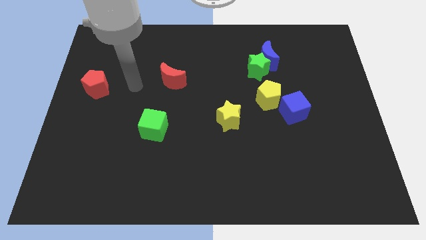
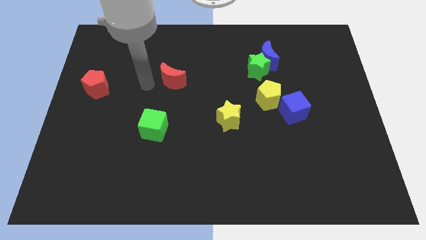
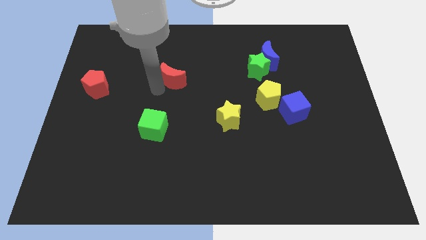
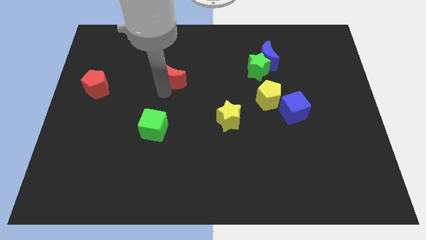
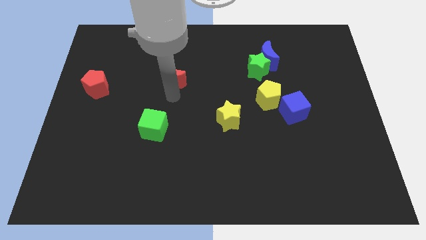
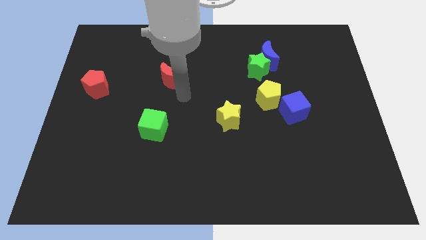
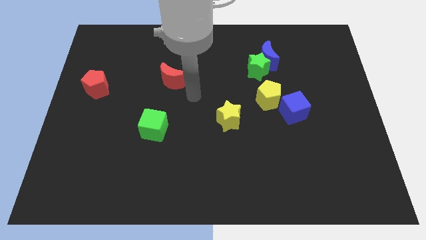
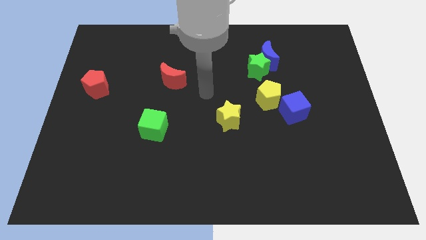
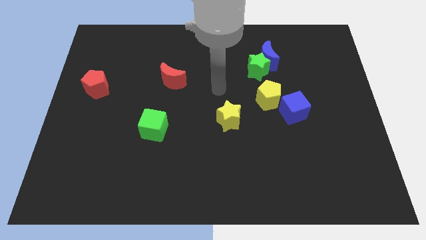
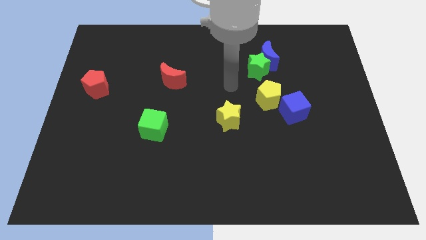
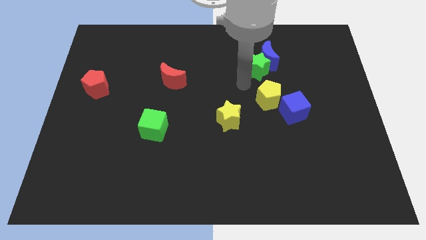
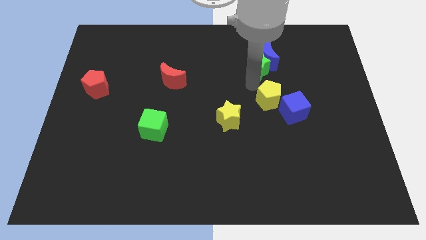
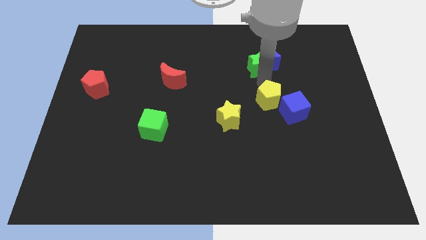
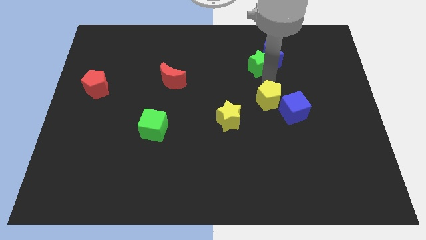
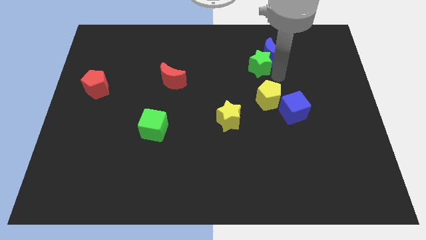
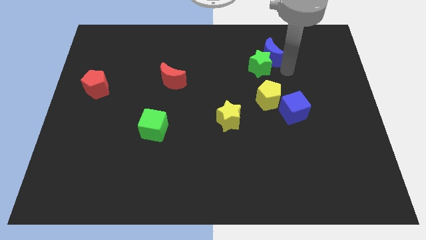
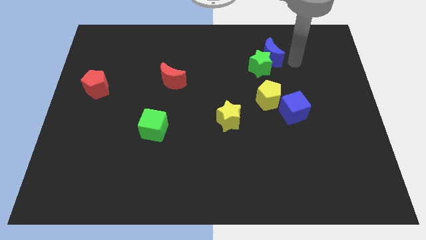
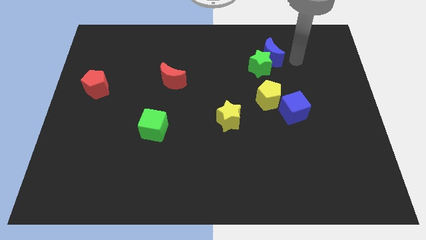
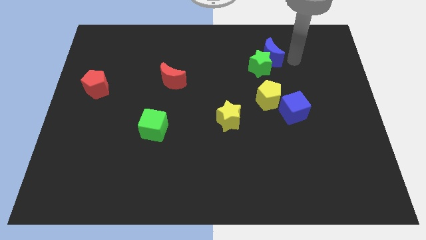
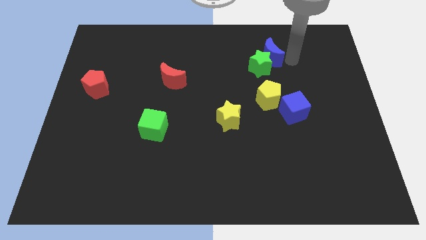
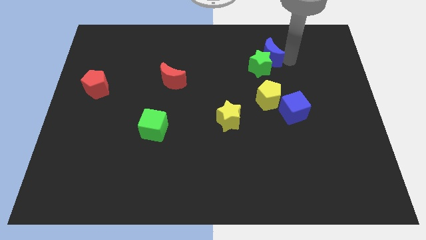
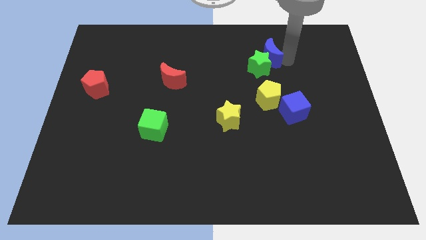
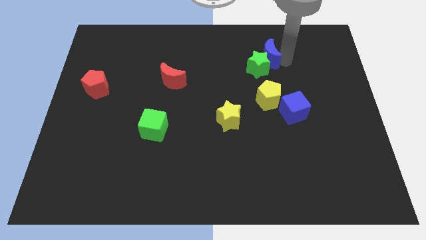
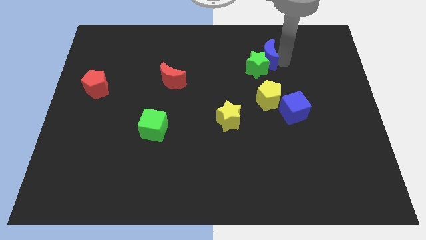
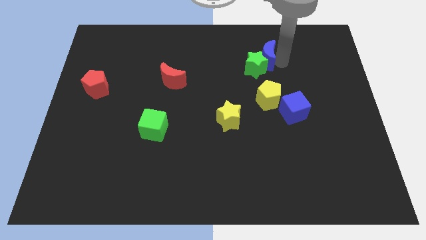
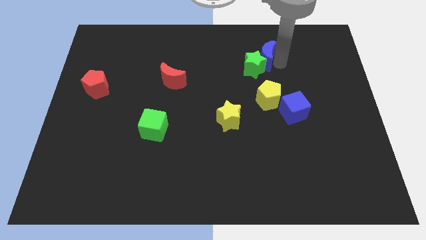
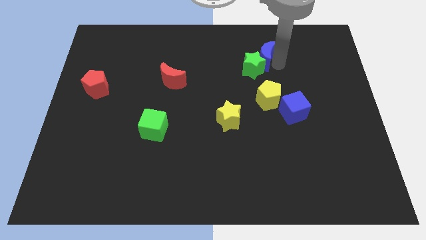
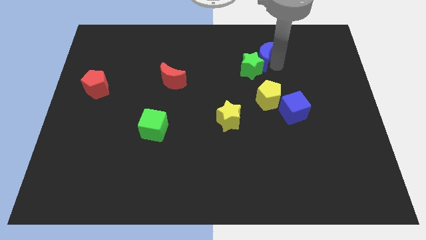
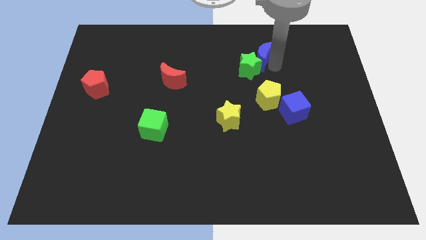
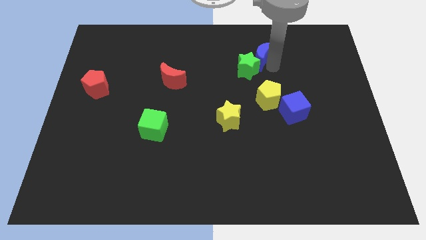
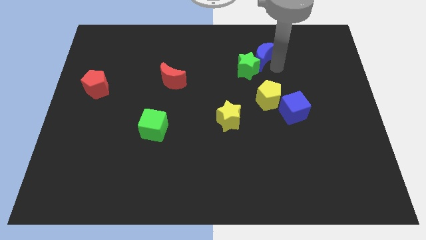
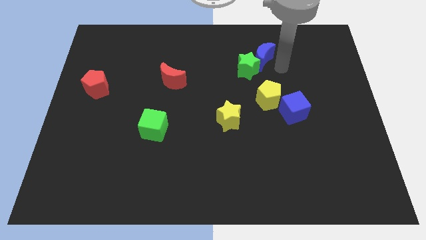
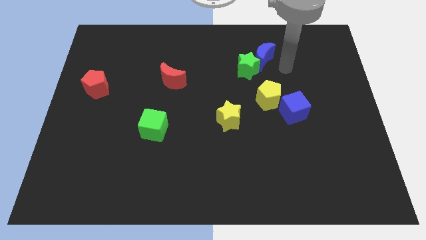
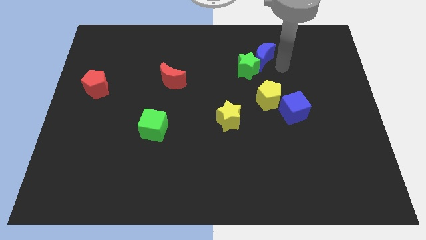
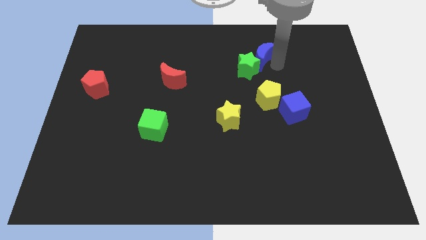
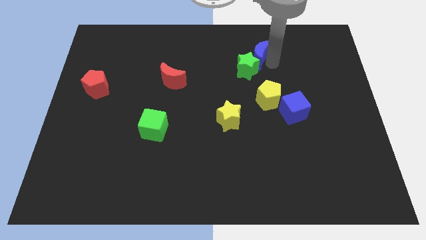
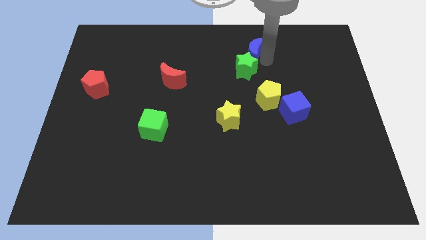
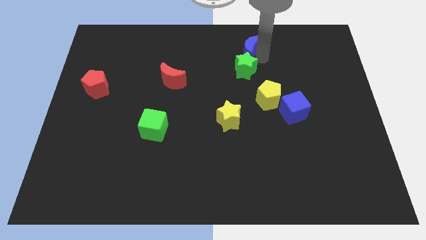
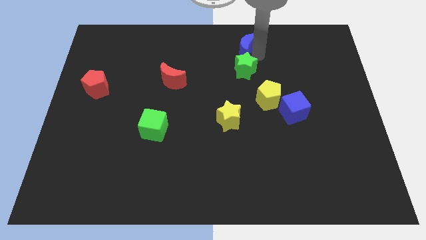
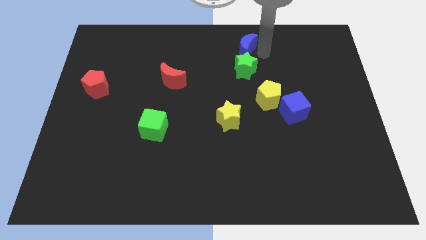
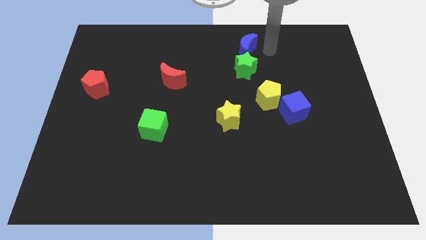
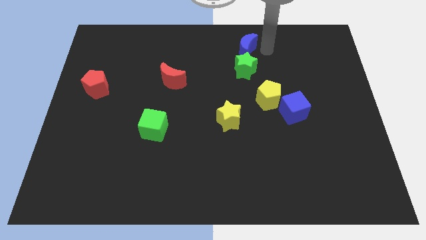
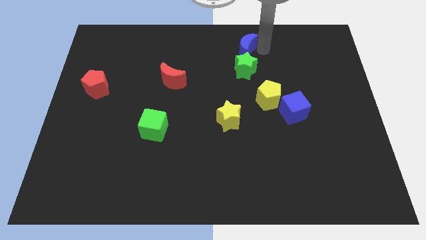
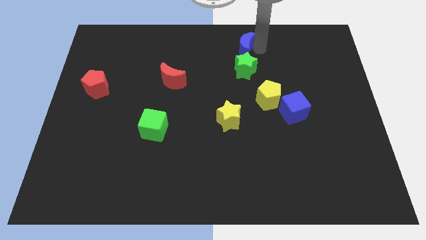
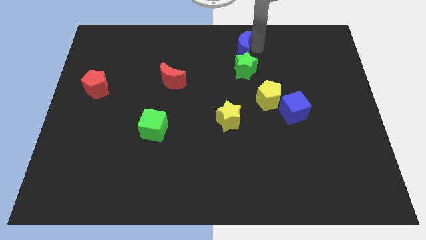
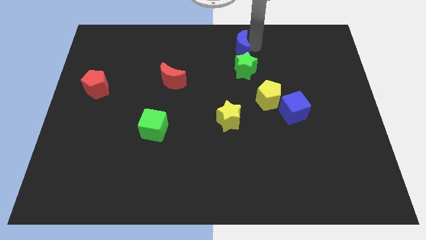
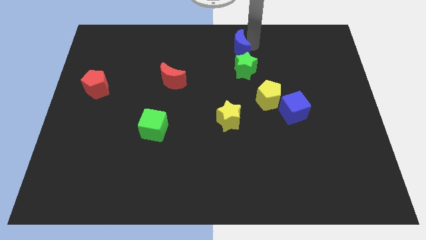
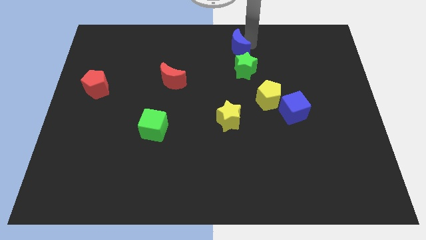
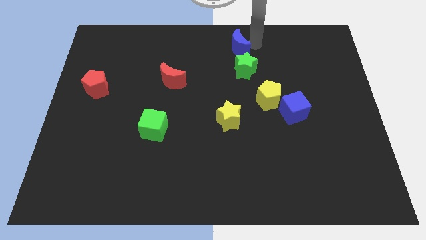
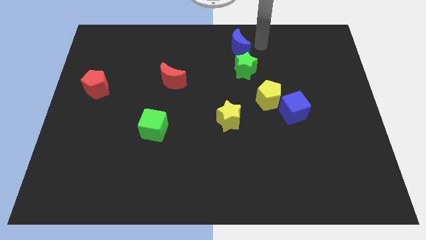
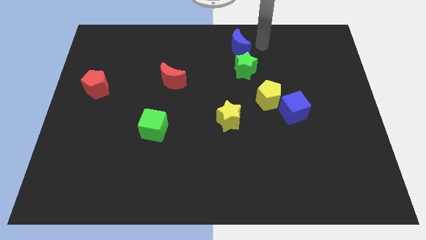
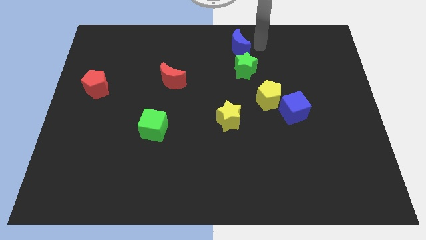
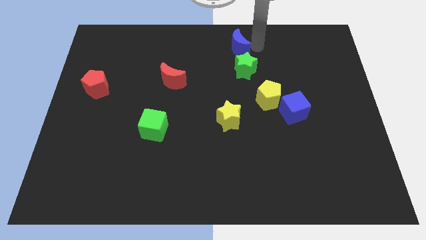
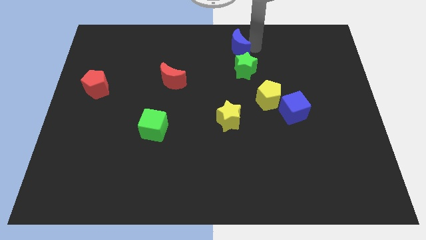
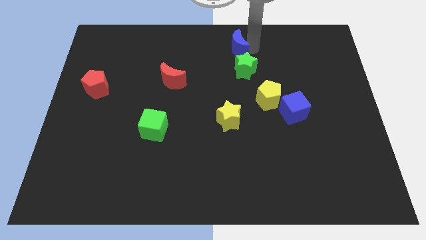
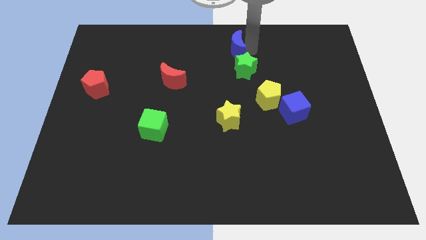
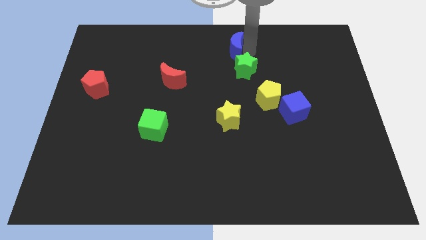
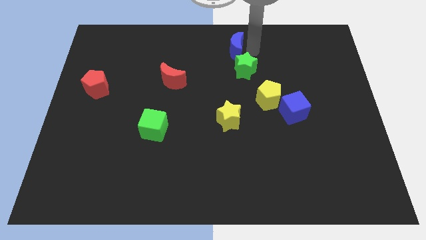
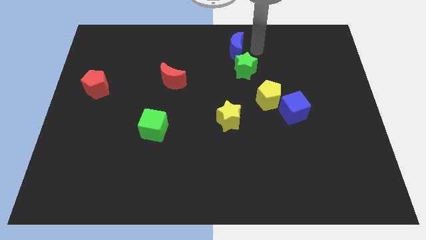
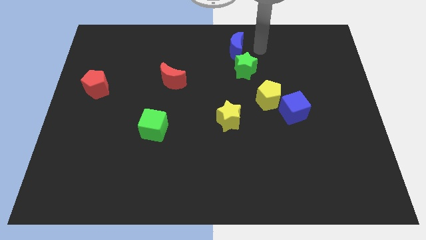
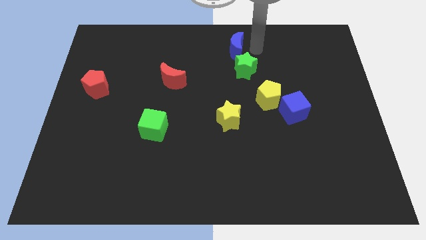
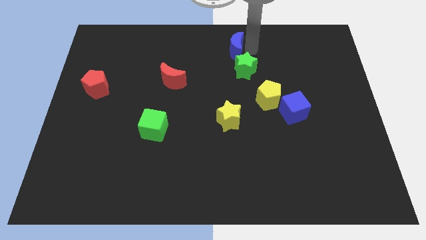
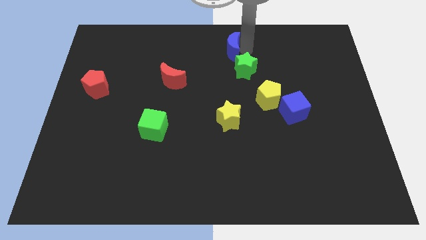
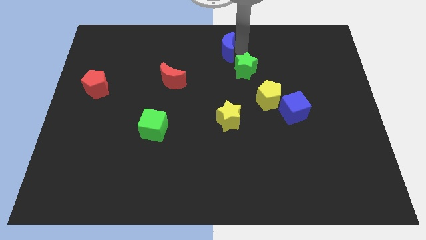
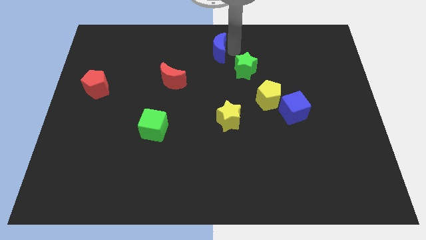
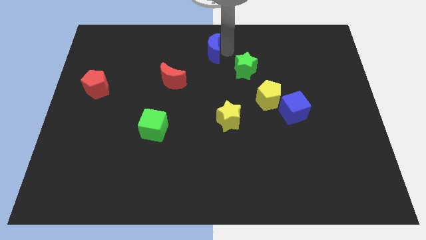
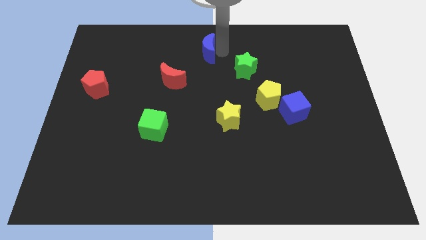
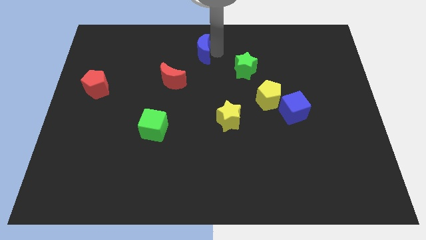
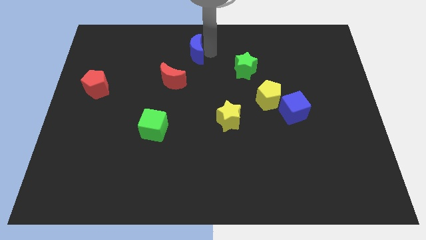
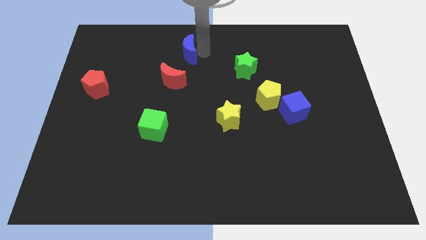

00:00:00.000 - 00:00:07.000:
slide the blue moon left

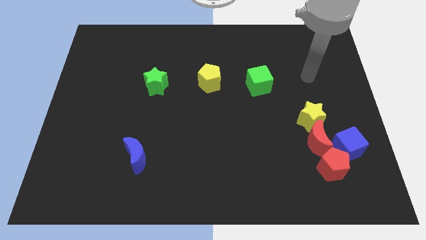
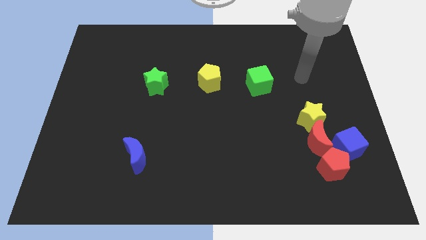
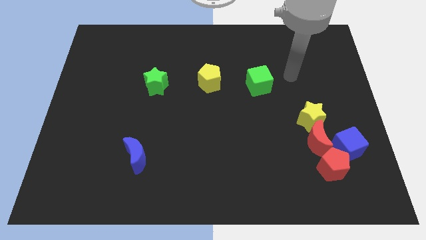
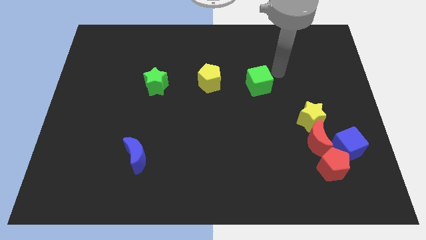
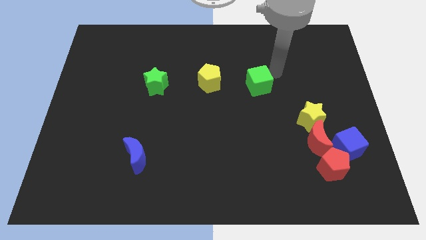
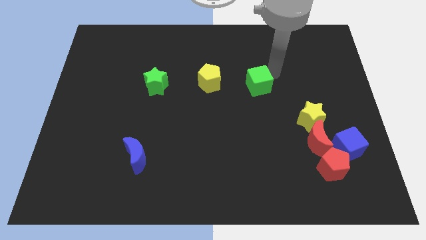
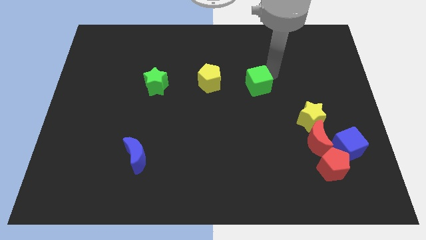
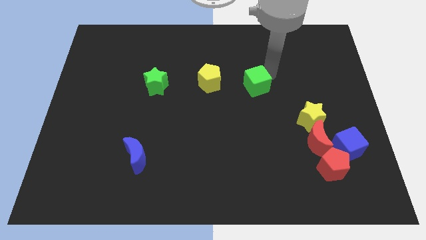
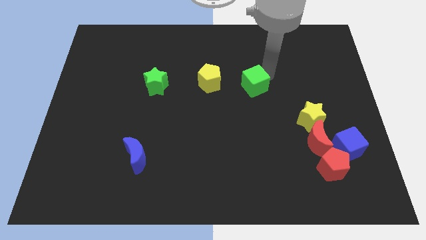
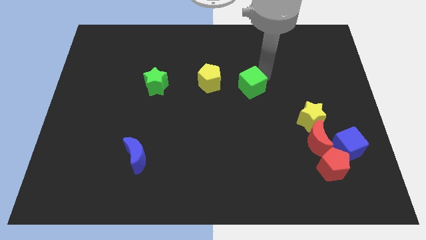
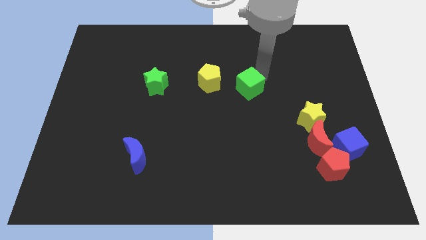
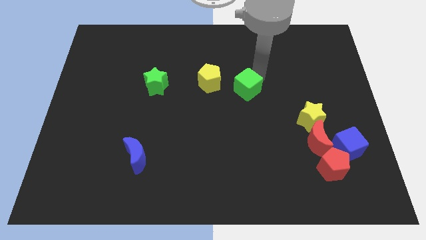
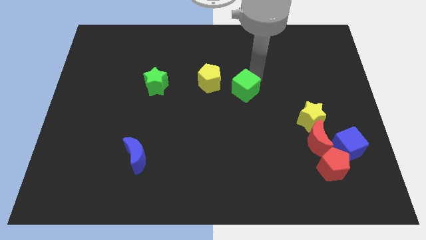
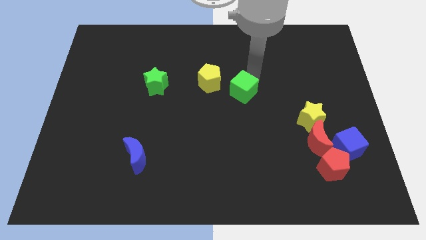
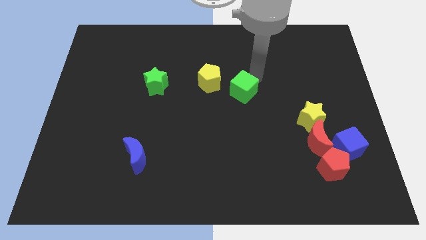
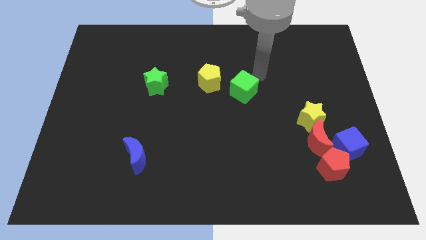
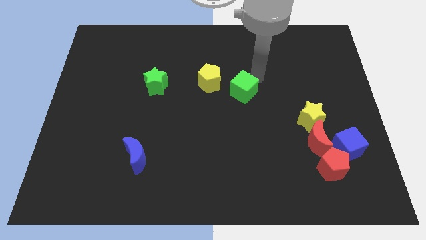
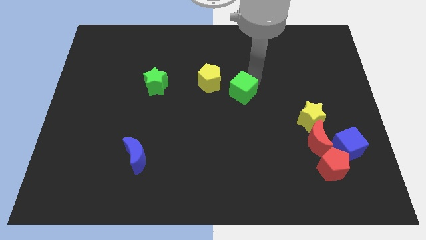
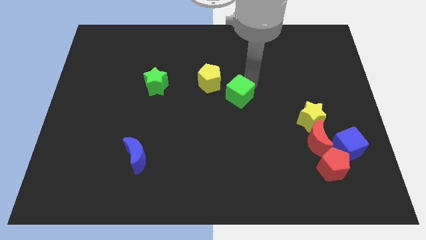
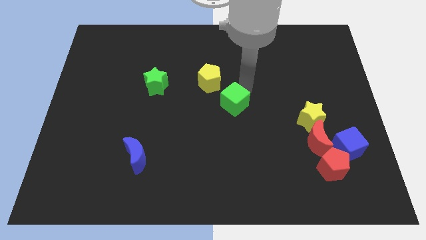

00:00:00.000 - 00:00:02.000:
push the green cube a bit downwards and left
